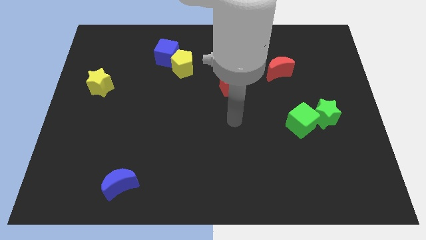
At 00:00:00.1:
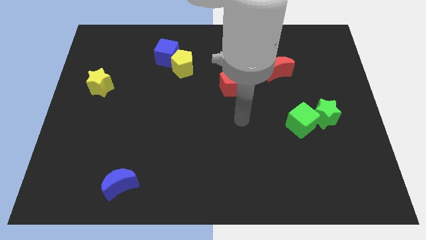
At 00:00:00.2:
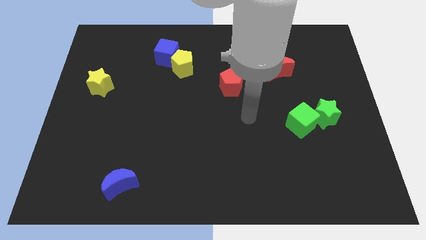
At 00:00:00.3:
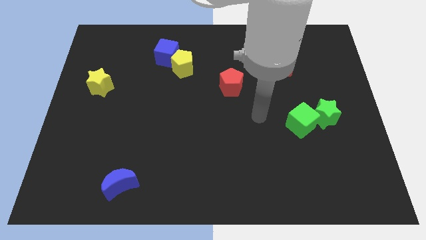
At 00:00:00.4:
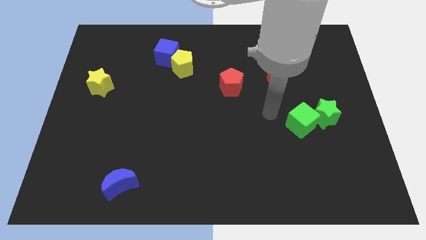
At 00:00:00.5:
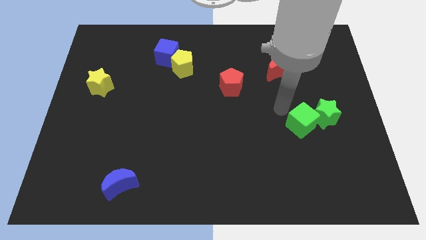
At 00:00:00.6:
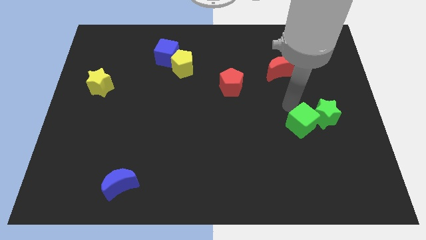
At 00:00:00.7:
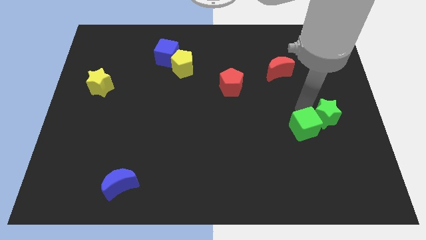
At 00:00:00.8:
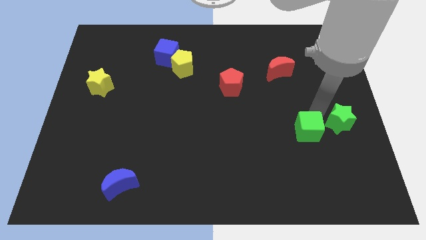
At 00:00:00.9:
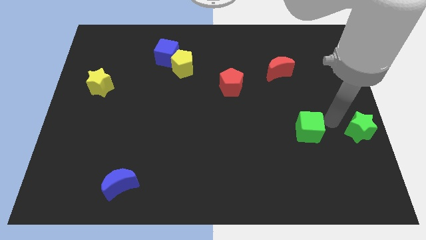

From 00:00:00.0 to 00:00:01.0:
pull the green cube apart from the green star

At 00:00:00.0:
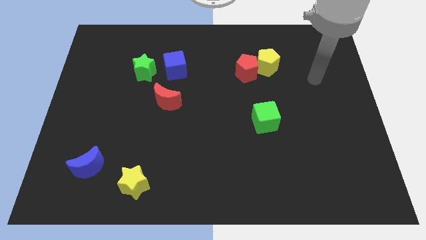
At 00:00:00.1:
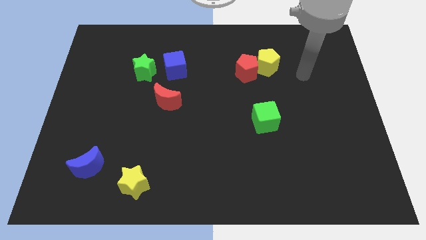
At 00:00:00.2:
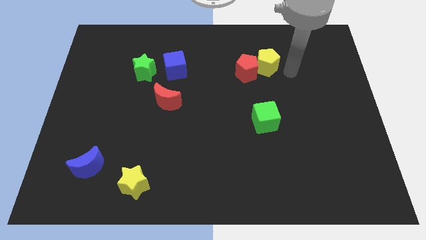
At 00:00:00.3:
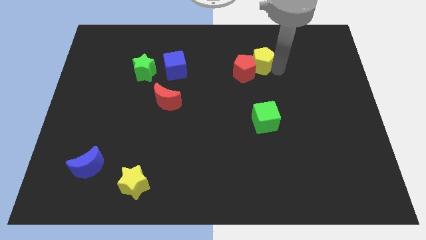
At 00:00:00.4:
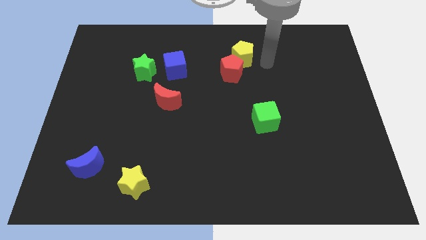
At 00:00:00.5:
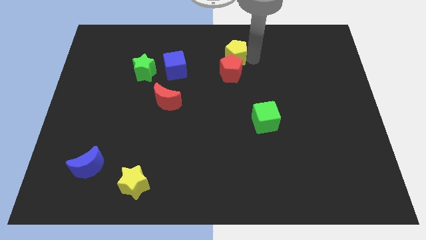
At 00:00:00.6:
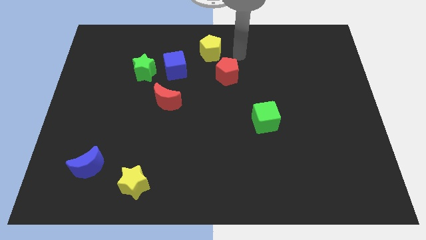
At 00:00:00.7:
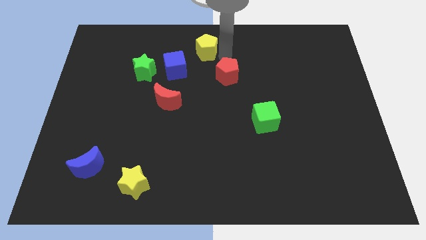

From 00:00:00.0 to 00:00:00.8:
separate the red pentagon from the yellow pentagon

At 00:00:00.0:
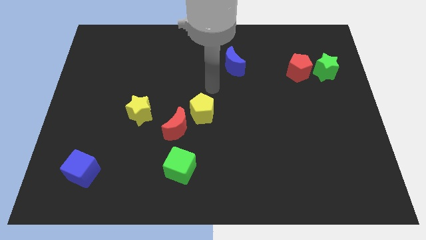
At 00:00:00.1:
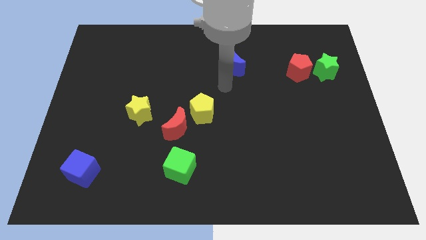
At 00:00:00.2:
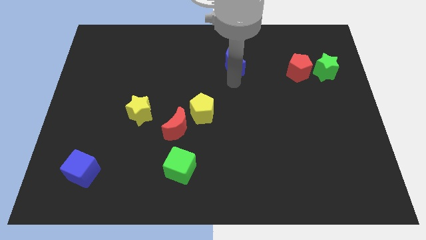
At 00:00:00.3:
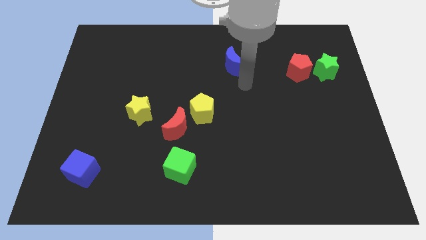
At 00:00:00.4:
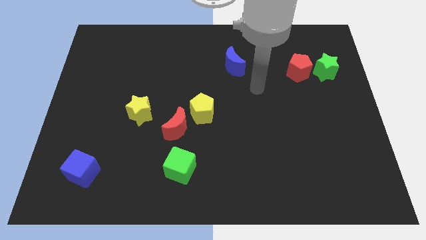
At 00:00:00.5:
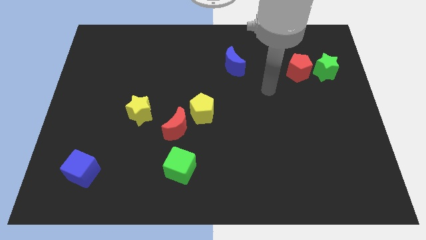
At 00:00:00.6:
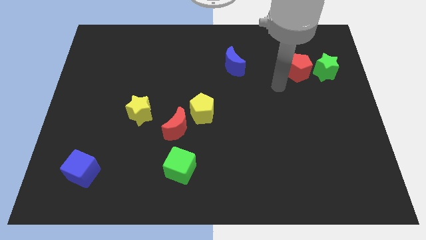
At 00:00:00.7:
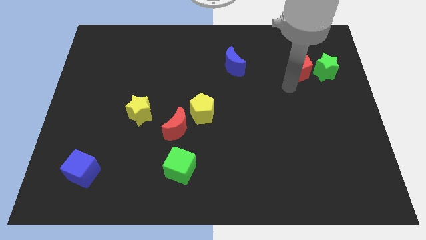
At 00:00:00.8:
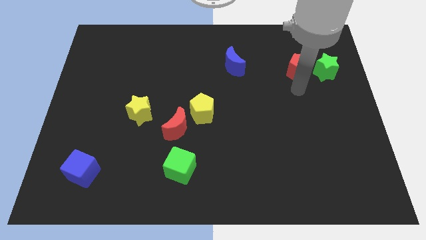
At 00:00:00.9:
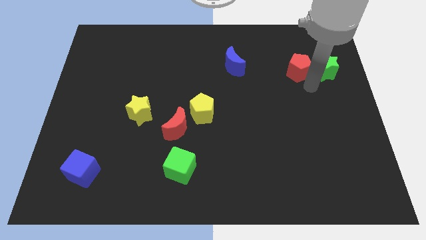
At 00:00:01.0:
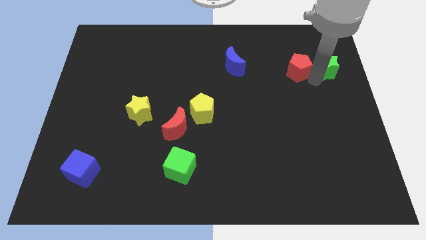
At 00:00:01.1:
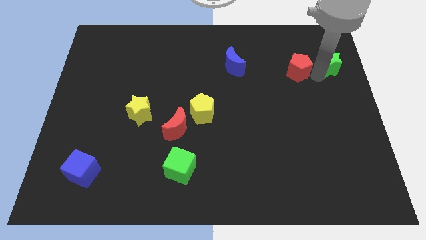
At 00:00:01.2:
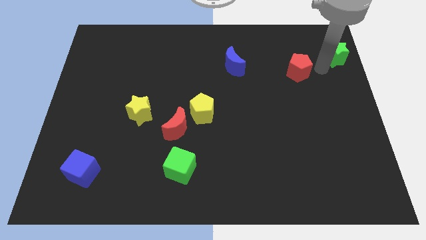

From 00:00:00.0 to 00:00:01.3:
move the red pentagon away from the green star

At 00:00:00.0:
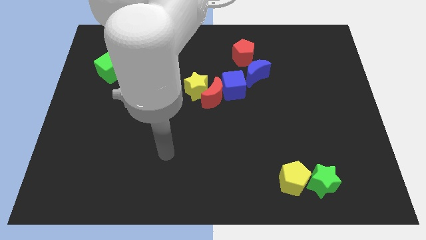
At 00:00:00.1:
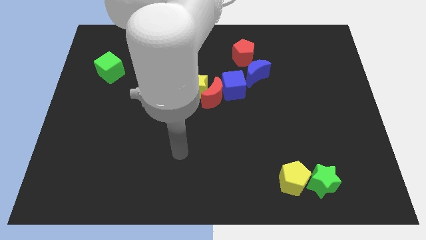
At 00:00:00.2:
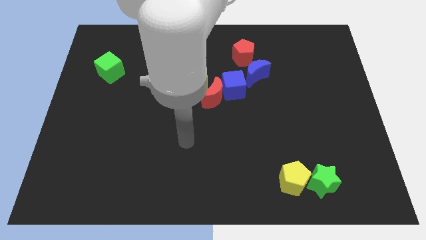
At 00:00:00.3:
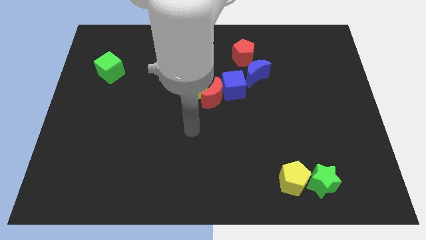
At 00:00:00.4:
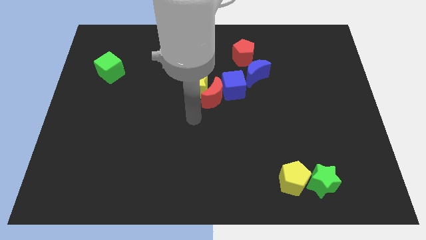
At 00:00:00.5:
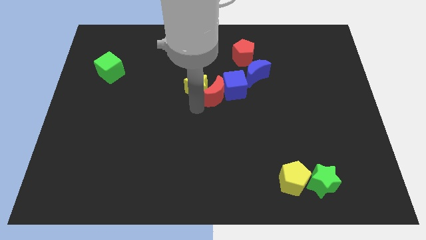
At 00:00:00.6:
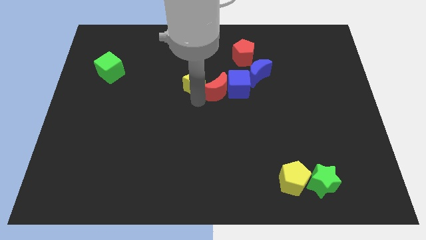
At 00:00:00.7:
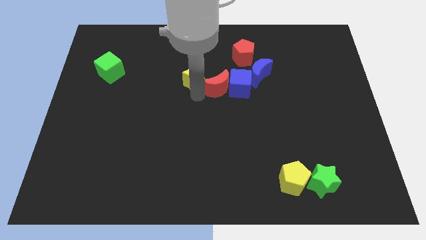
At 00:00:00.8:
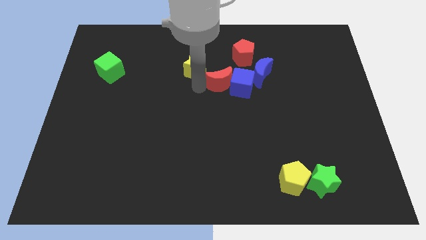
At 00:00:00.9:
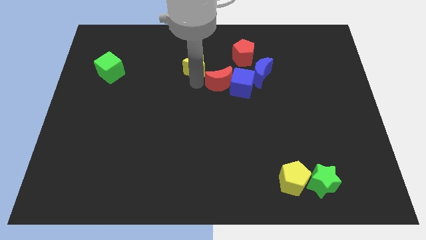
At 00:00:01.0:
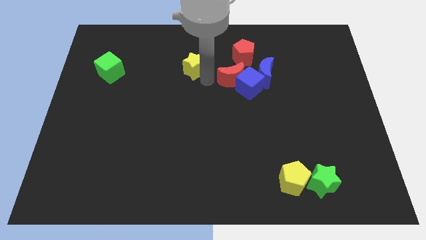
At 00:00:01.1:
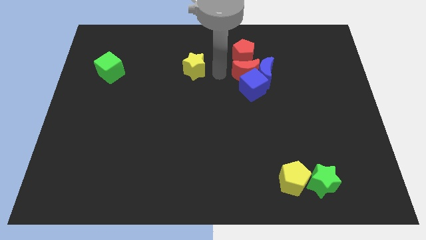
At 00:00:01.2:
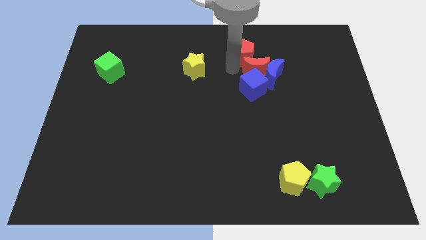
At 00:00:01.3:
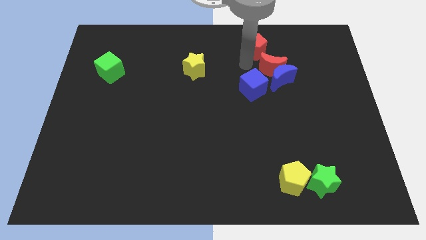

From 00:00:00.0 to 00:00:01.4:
separate the red moon from the yellow star and blue cube

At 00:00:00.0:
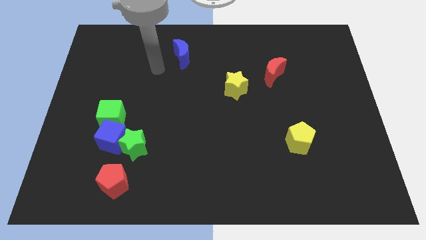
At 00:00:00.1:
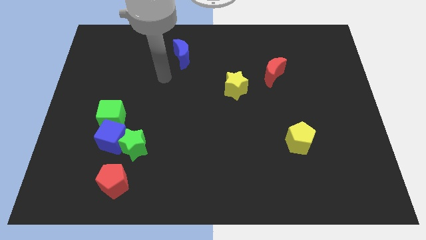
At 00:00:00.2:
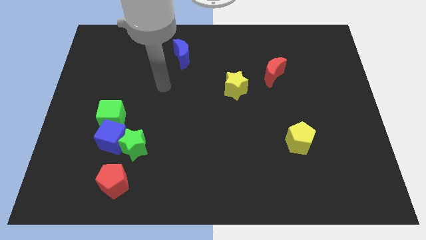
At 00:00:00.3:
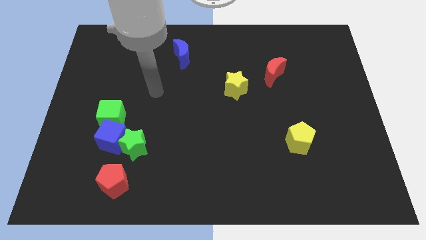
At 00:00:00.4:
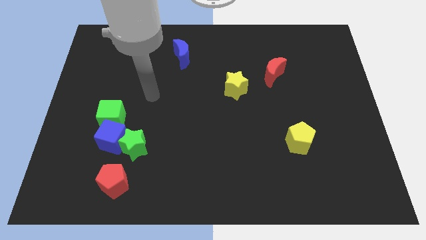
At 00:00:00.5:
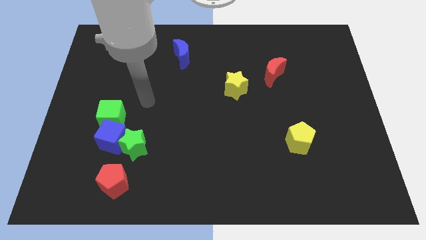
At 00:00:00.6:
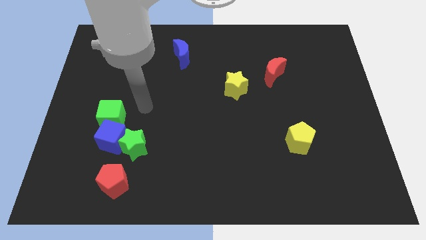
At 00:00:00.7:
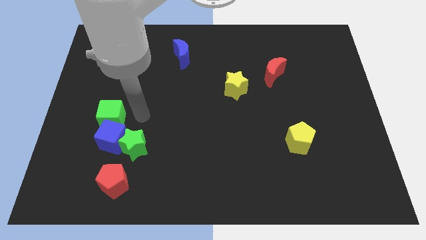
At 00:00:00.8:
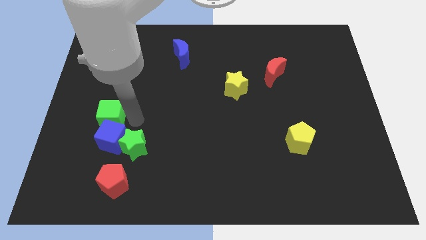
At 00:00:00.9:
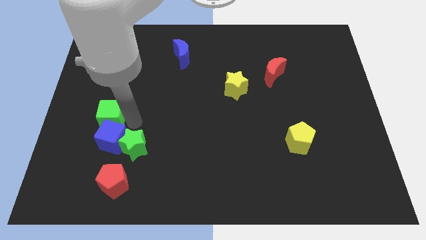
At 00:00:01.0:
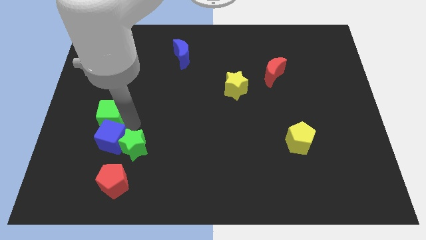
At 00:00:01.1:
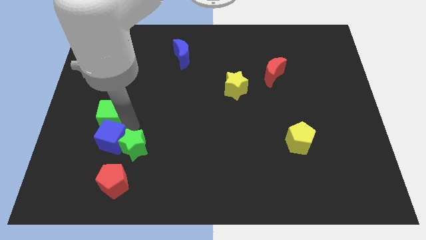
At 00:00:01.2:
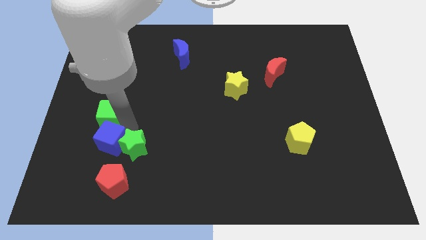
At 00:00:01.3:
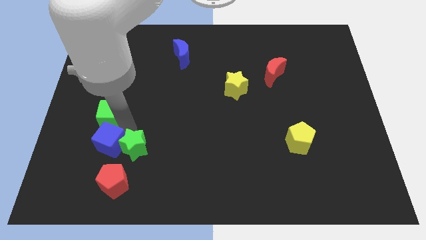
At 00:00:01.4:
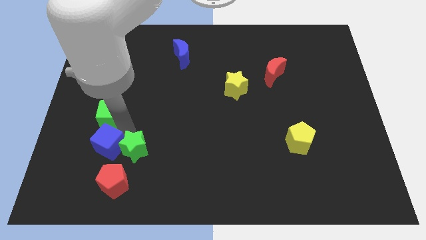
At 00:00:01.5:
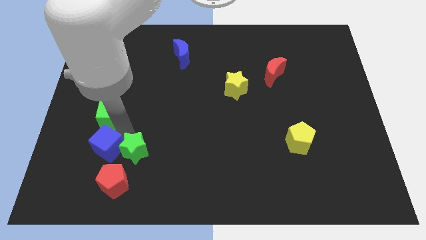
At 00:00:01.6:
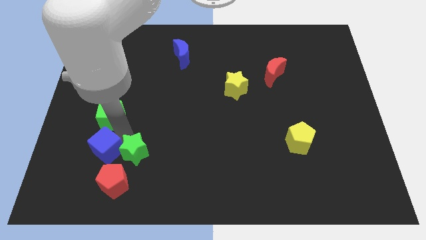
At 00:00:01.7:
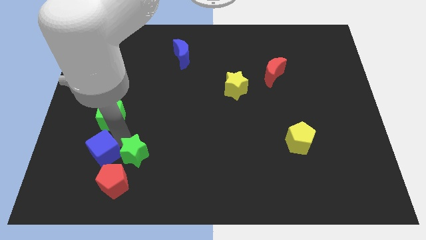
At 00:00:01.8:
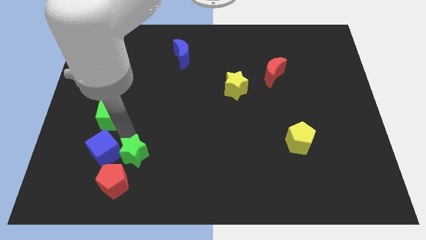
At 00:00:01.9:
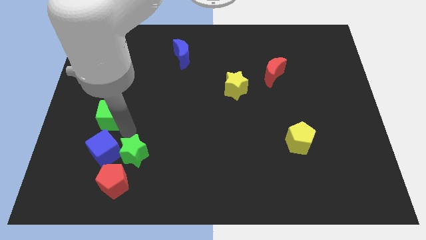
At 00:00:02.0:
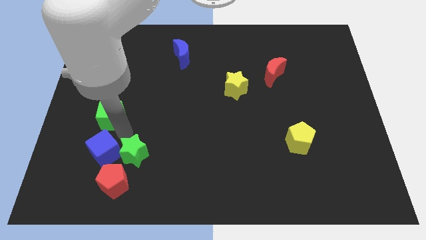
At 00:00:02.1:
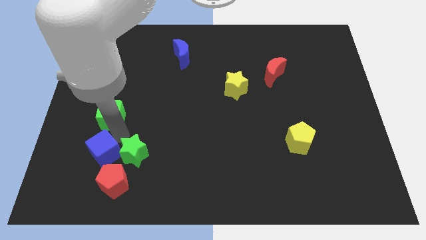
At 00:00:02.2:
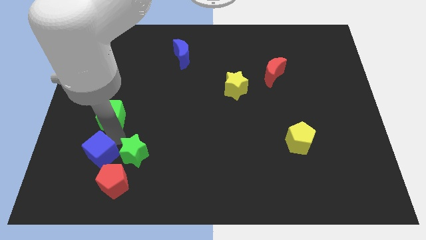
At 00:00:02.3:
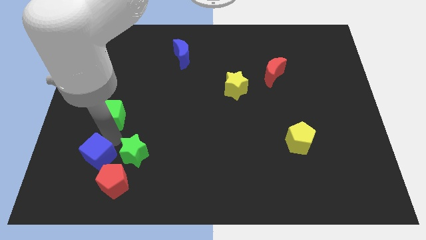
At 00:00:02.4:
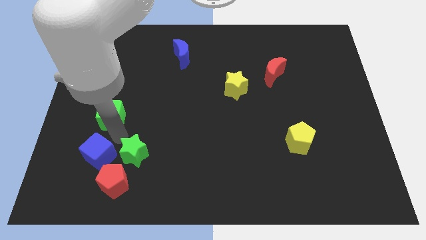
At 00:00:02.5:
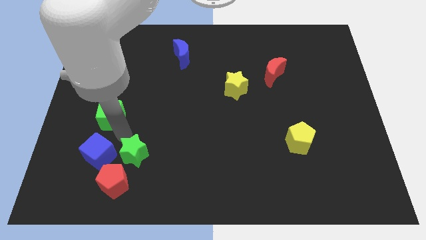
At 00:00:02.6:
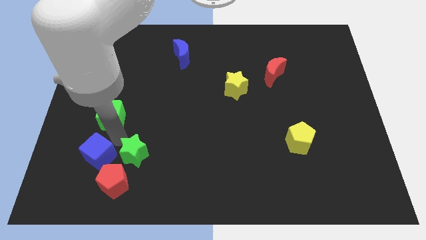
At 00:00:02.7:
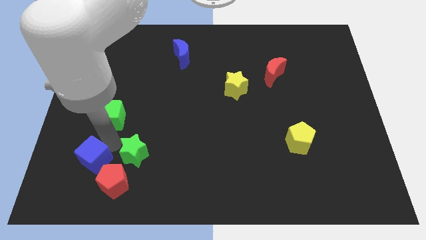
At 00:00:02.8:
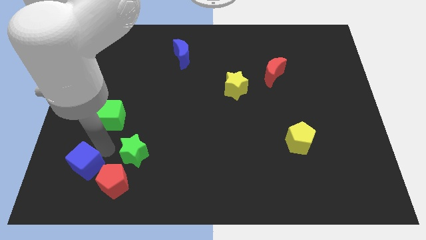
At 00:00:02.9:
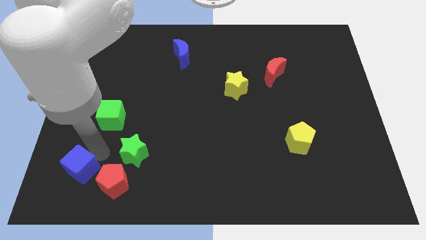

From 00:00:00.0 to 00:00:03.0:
pull the blue cube apart from the green star and green cube

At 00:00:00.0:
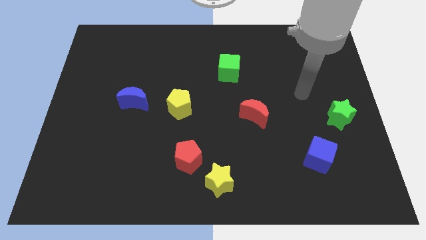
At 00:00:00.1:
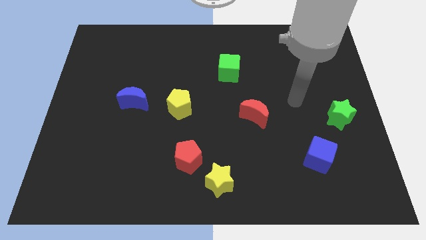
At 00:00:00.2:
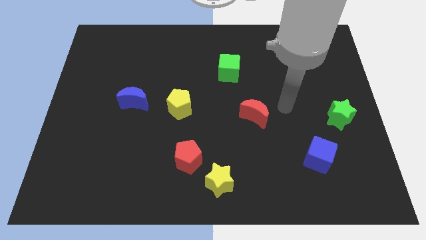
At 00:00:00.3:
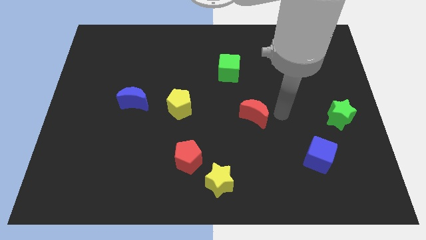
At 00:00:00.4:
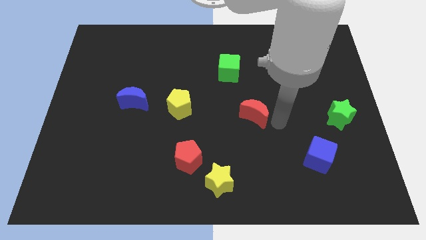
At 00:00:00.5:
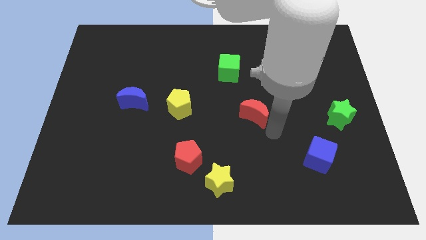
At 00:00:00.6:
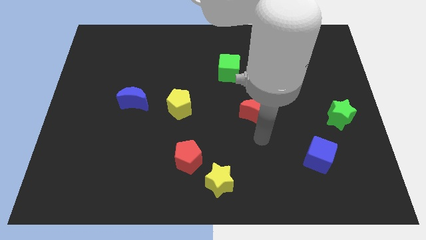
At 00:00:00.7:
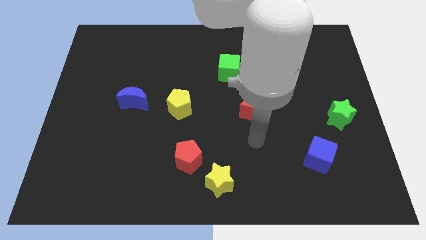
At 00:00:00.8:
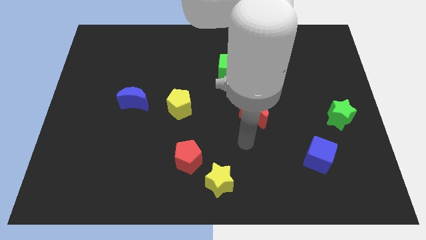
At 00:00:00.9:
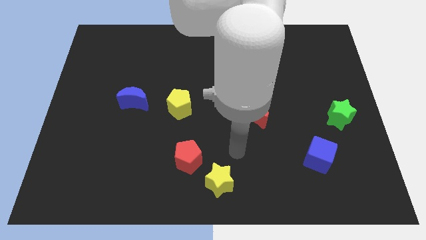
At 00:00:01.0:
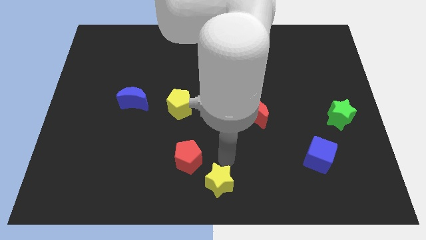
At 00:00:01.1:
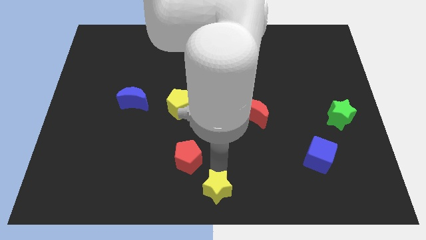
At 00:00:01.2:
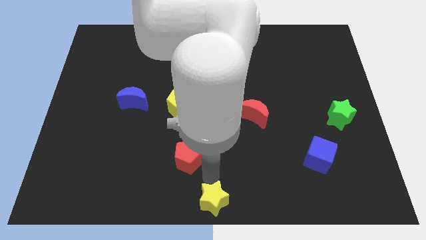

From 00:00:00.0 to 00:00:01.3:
separate the red pentagon from the yellow star

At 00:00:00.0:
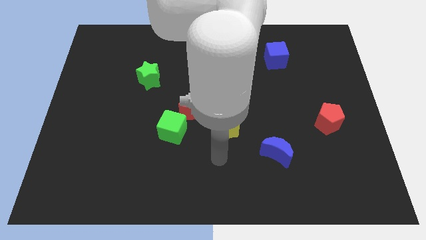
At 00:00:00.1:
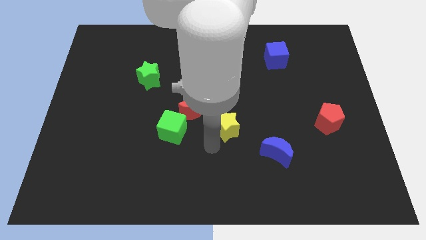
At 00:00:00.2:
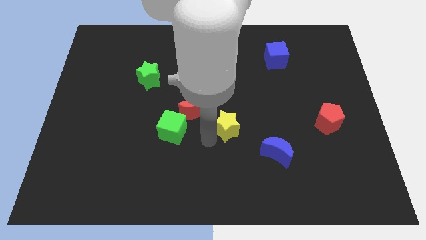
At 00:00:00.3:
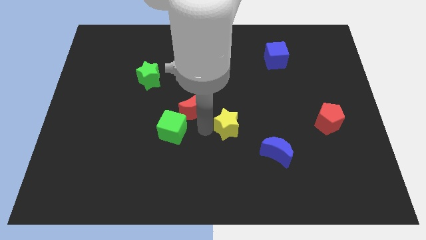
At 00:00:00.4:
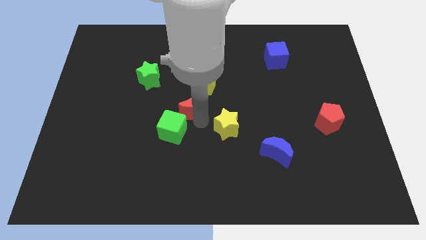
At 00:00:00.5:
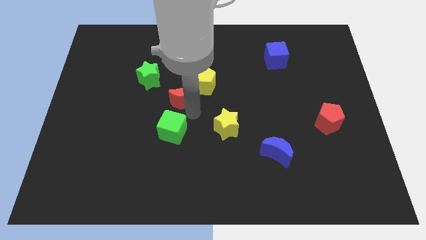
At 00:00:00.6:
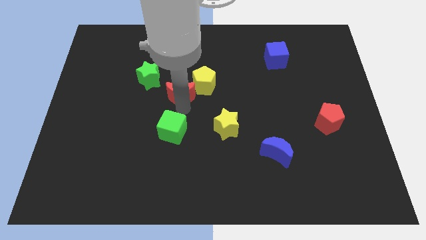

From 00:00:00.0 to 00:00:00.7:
pull the green cube apart from the red moon
